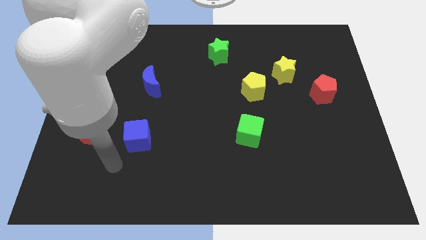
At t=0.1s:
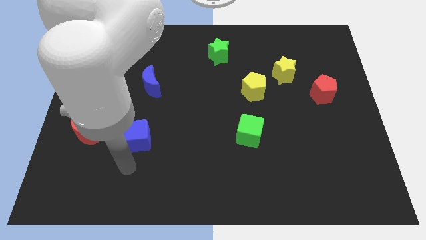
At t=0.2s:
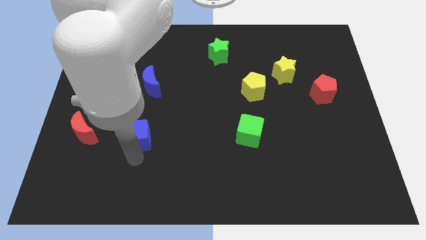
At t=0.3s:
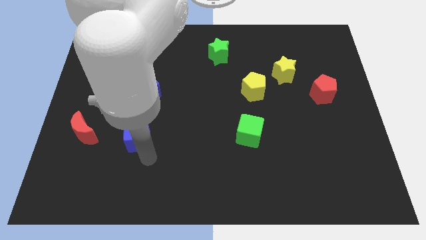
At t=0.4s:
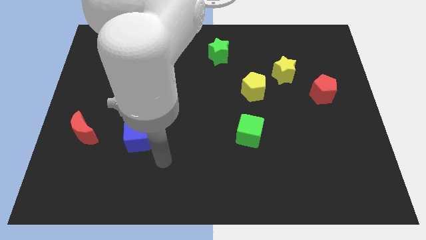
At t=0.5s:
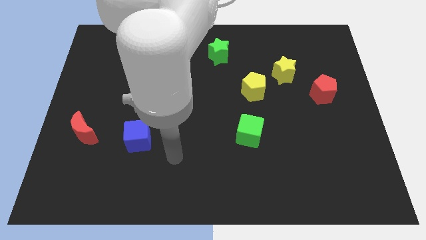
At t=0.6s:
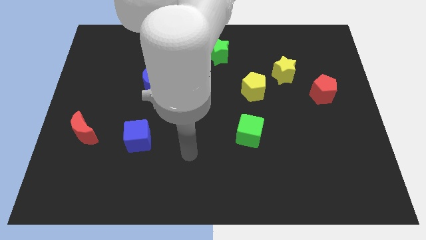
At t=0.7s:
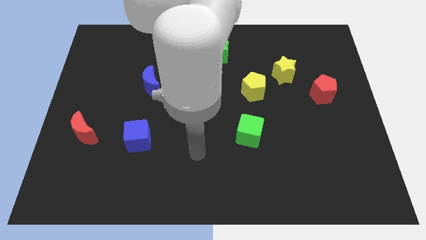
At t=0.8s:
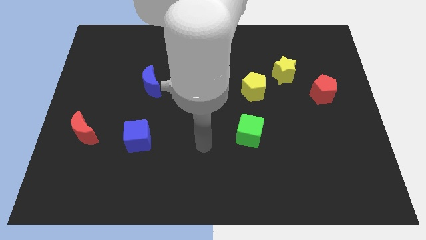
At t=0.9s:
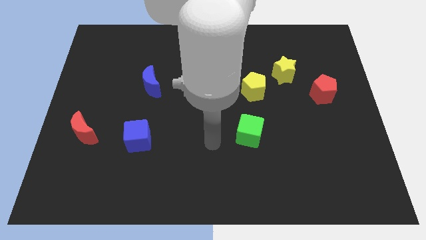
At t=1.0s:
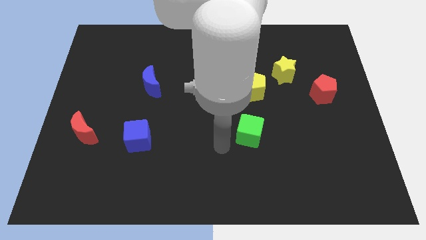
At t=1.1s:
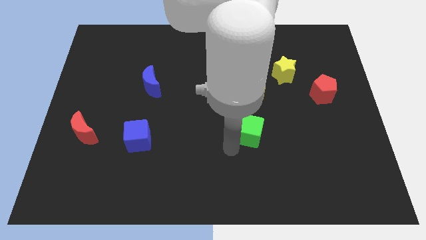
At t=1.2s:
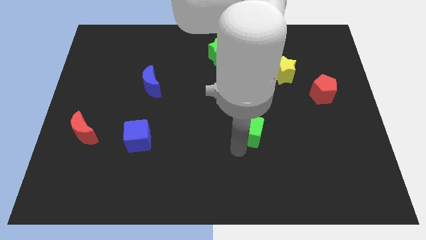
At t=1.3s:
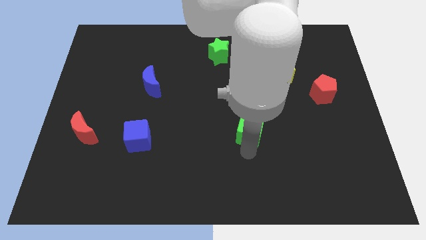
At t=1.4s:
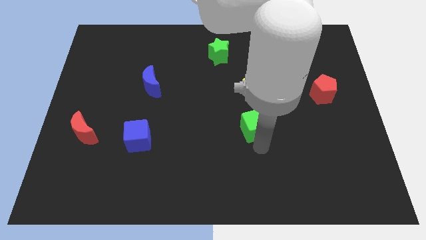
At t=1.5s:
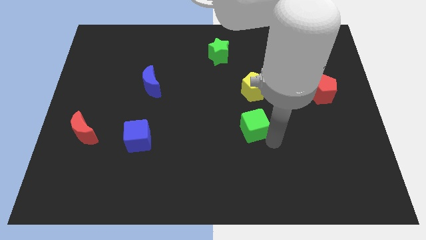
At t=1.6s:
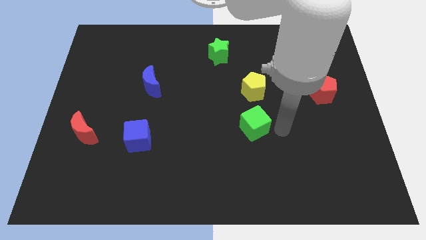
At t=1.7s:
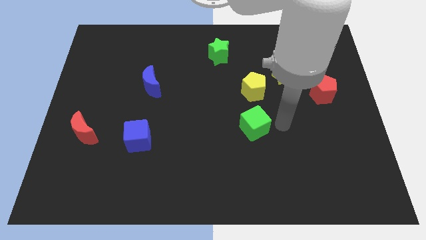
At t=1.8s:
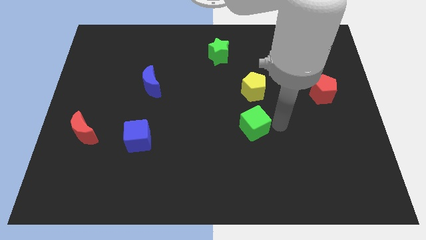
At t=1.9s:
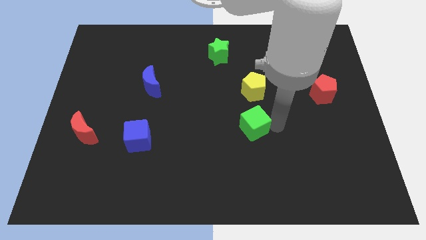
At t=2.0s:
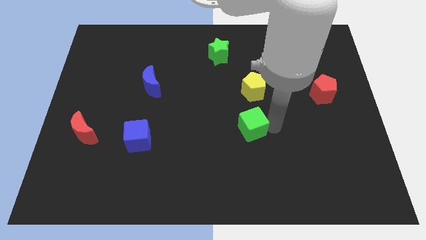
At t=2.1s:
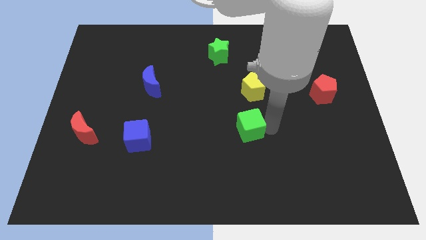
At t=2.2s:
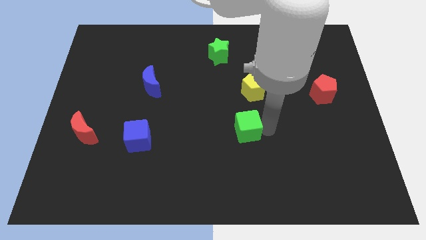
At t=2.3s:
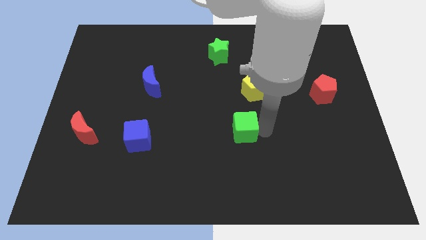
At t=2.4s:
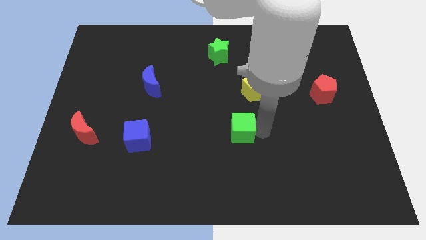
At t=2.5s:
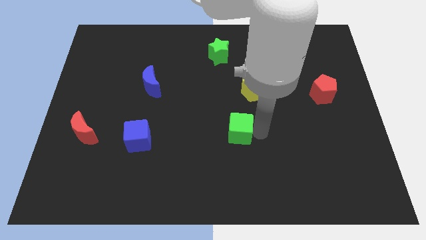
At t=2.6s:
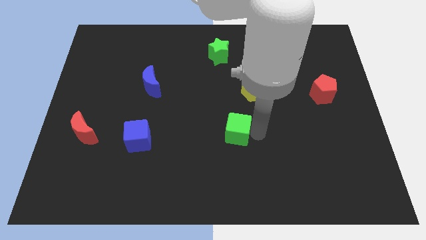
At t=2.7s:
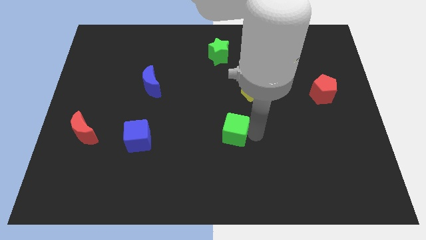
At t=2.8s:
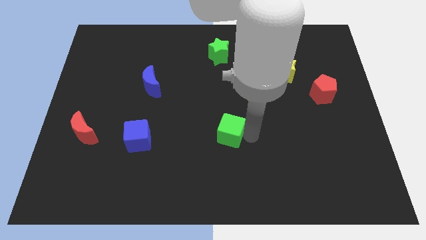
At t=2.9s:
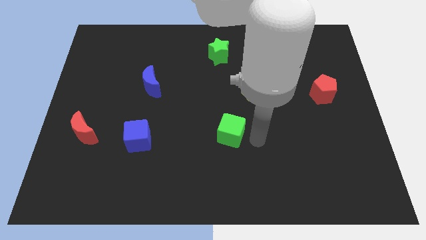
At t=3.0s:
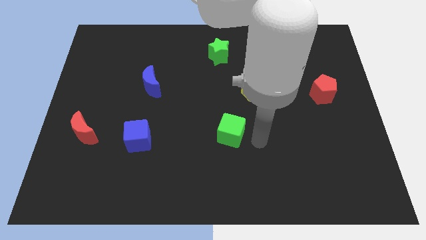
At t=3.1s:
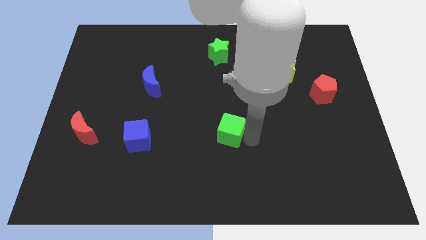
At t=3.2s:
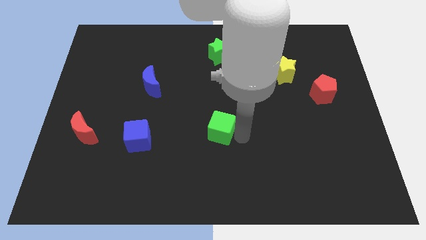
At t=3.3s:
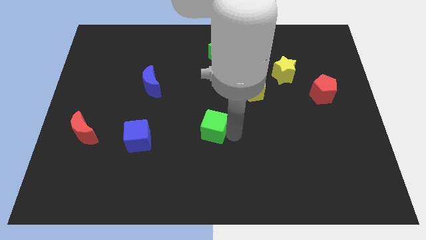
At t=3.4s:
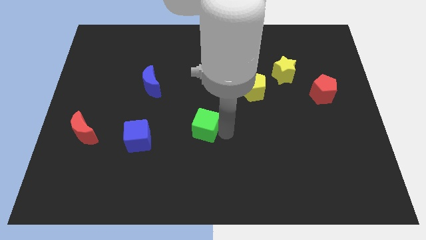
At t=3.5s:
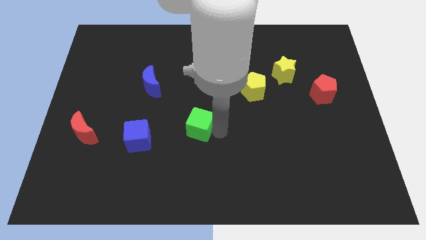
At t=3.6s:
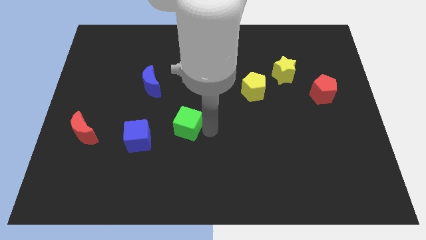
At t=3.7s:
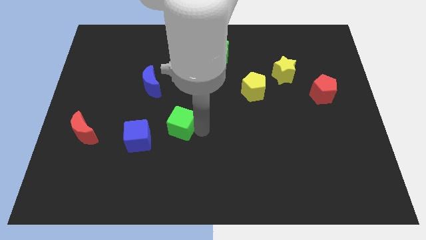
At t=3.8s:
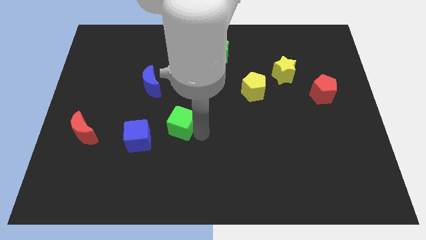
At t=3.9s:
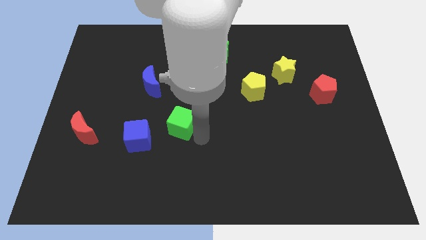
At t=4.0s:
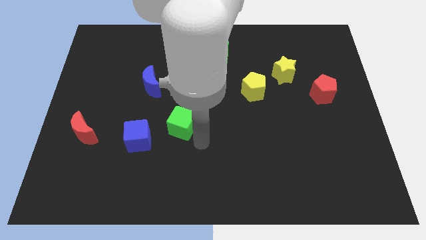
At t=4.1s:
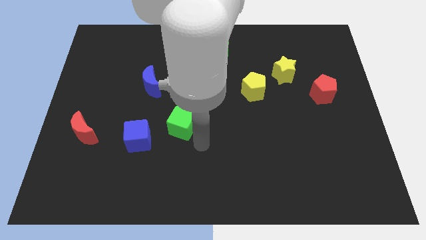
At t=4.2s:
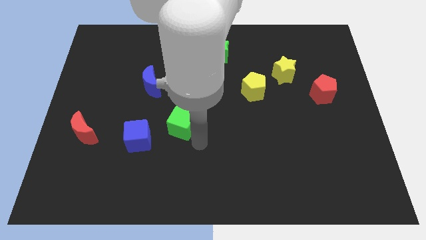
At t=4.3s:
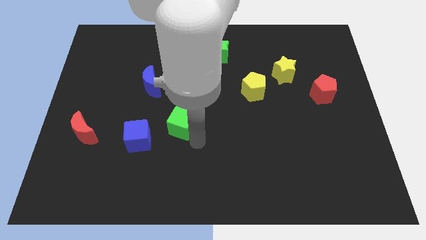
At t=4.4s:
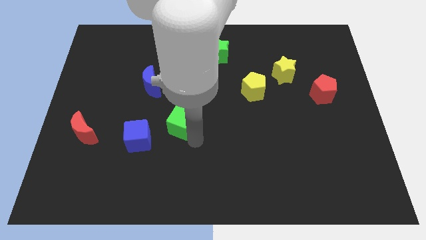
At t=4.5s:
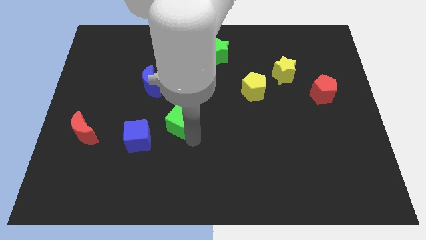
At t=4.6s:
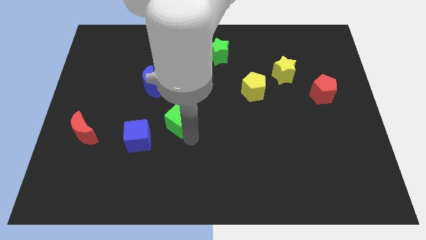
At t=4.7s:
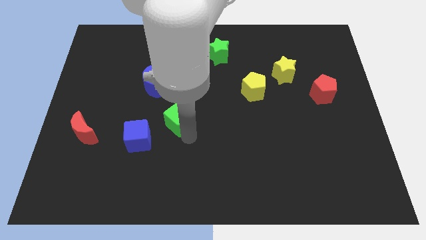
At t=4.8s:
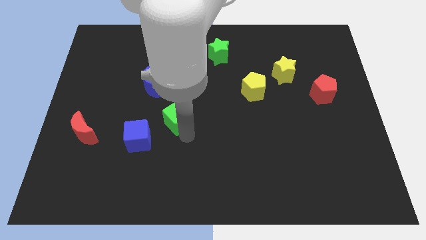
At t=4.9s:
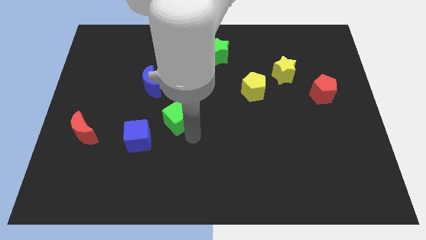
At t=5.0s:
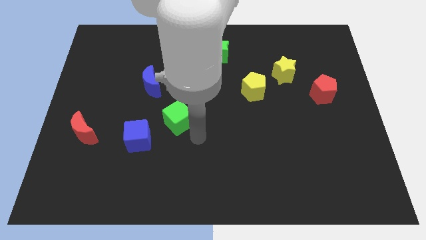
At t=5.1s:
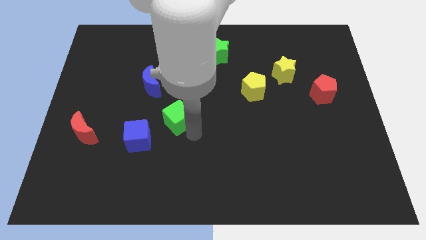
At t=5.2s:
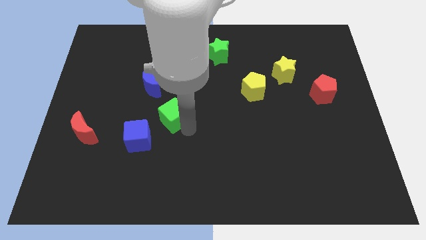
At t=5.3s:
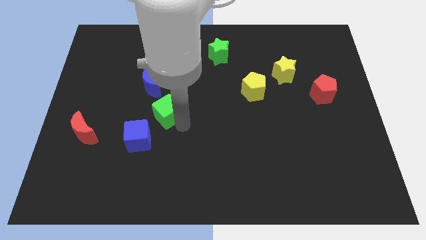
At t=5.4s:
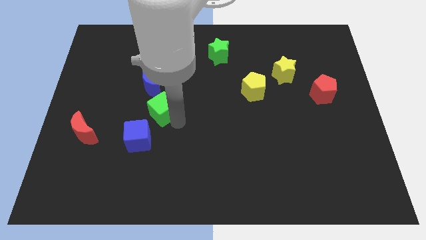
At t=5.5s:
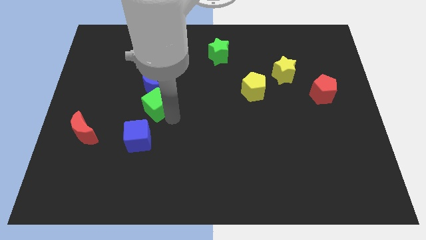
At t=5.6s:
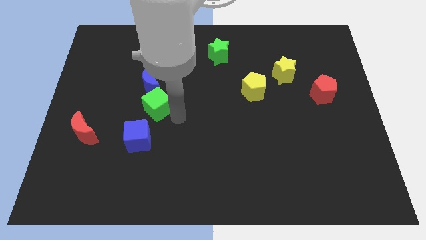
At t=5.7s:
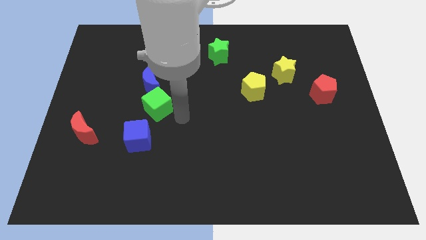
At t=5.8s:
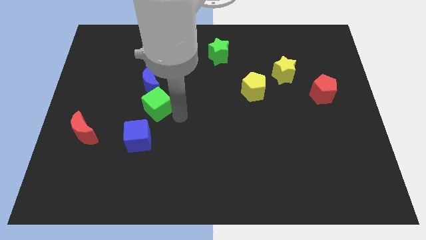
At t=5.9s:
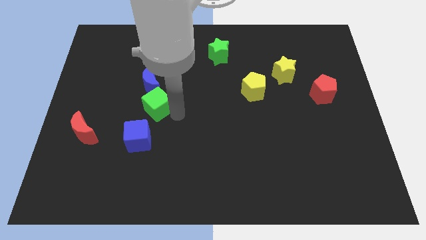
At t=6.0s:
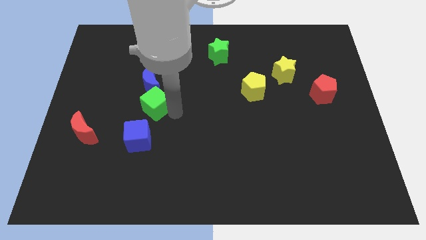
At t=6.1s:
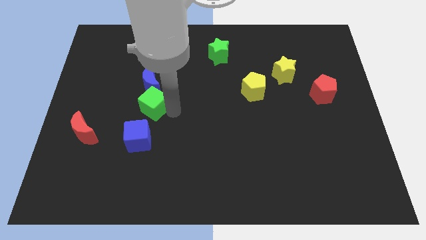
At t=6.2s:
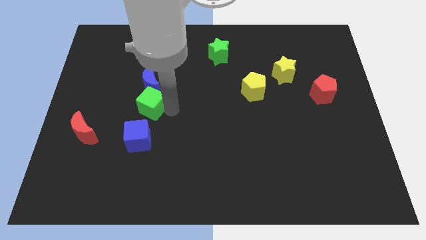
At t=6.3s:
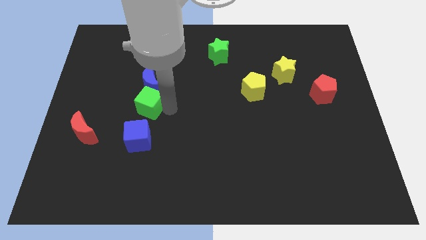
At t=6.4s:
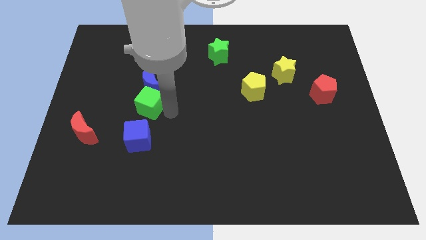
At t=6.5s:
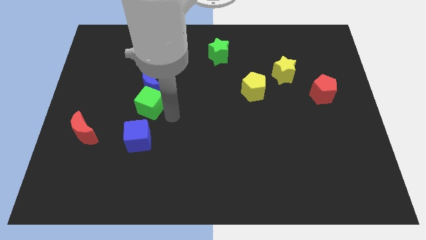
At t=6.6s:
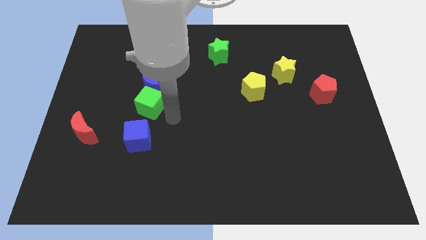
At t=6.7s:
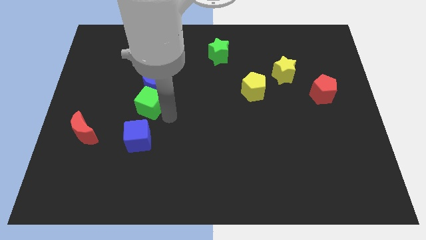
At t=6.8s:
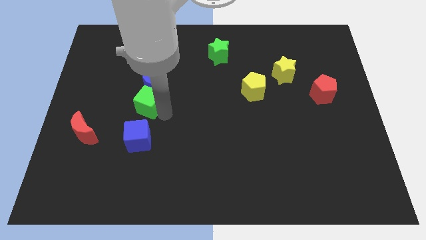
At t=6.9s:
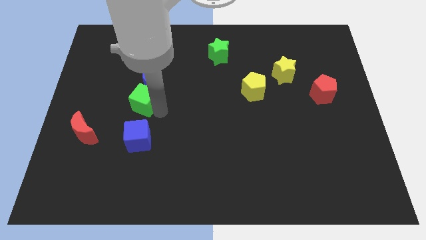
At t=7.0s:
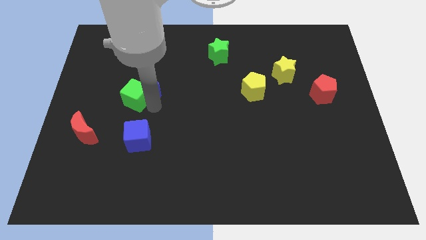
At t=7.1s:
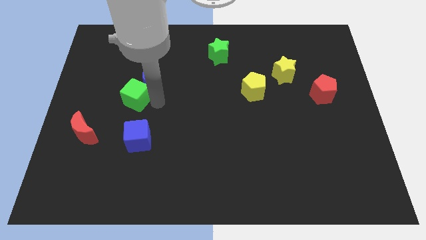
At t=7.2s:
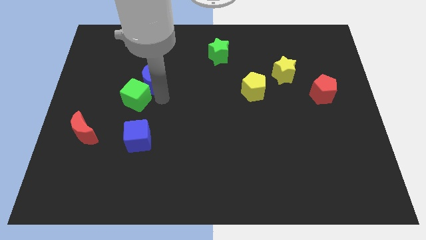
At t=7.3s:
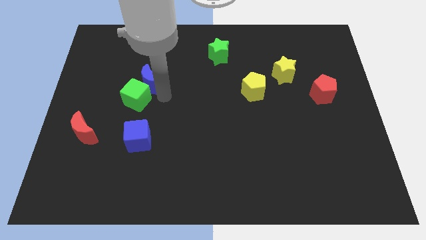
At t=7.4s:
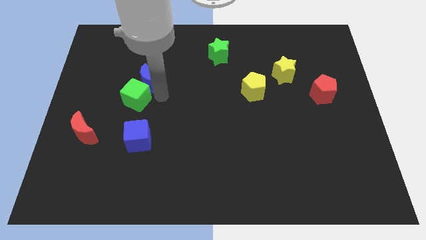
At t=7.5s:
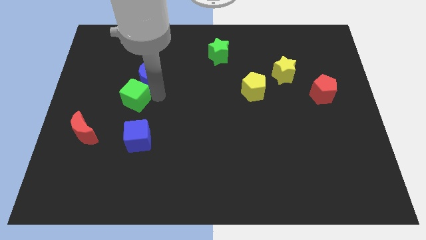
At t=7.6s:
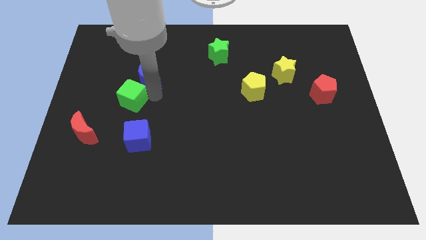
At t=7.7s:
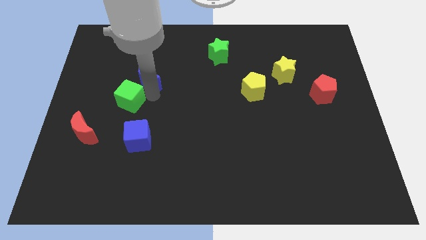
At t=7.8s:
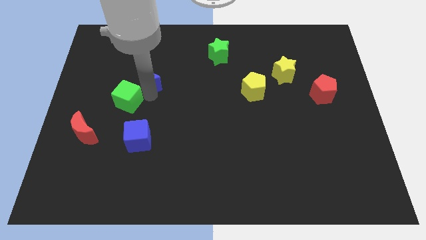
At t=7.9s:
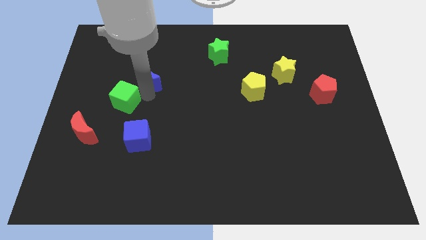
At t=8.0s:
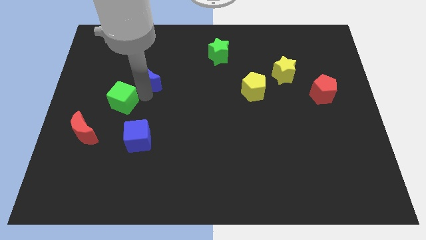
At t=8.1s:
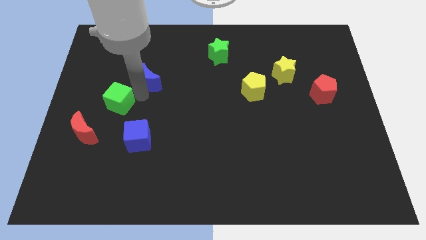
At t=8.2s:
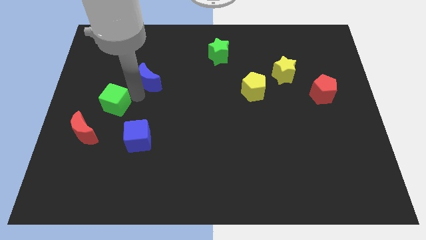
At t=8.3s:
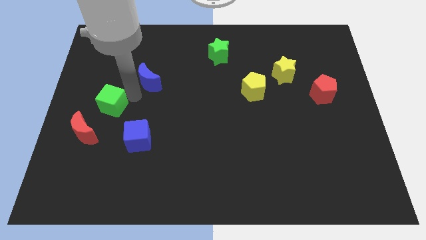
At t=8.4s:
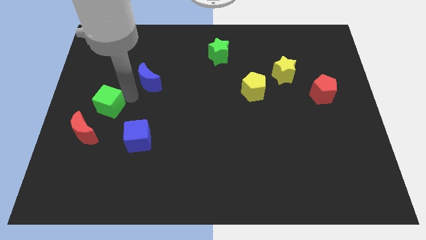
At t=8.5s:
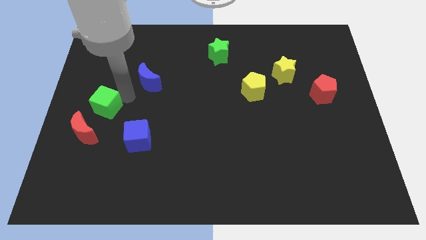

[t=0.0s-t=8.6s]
push the green cube to the center left
